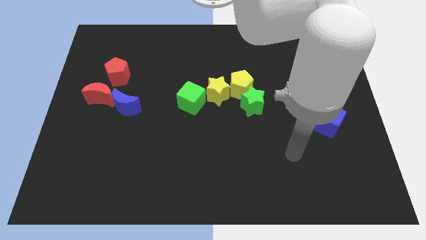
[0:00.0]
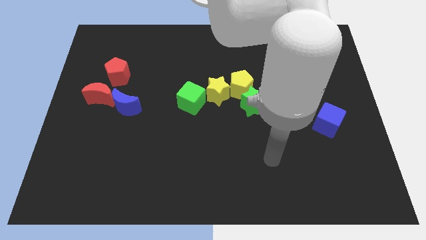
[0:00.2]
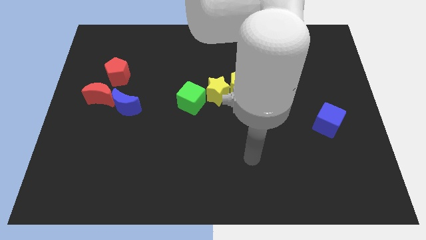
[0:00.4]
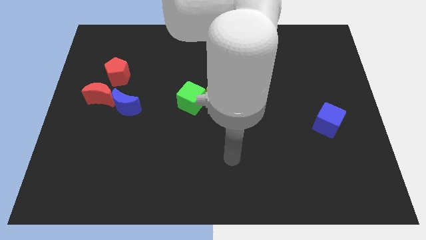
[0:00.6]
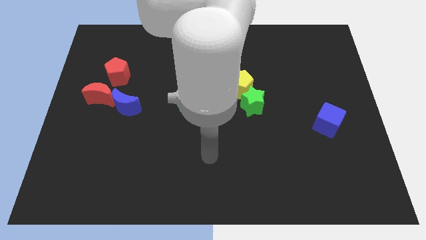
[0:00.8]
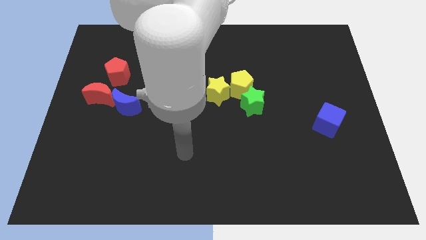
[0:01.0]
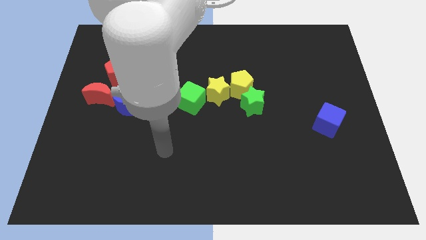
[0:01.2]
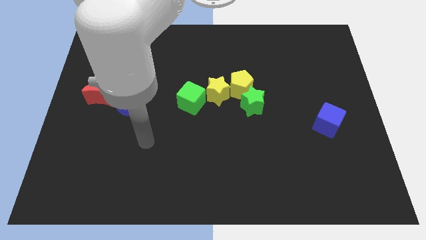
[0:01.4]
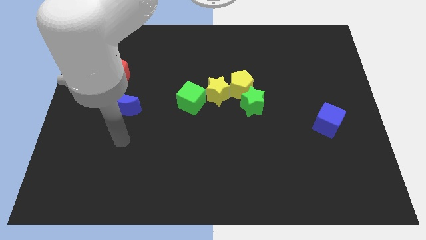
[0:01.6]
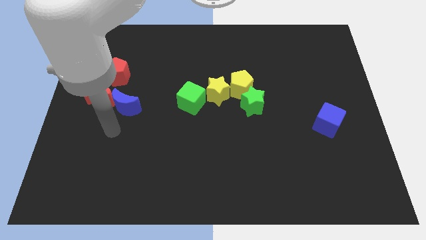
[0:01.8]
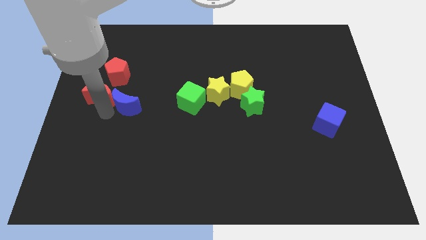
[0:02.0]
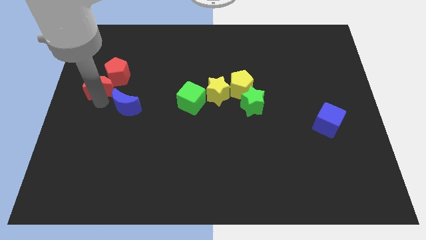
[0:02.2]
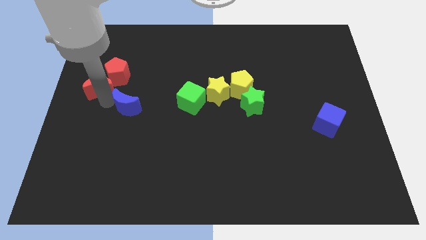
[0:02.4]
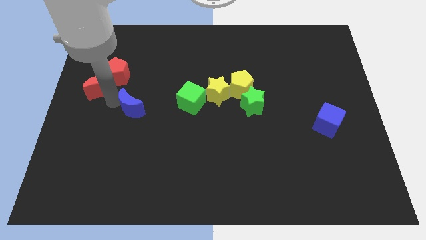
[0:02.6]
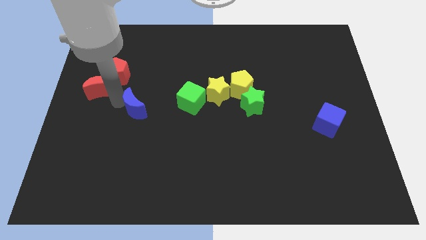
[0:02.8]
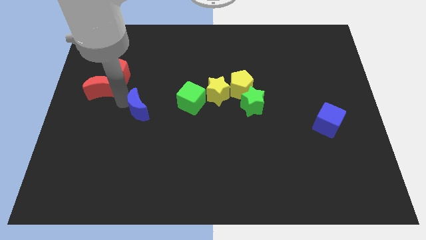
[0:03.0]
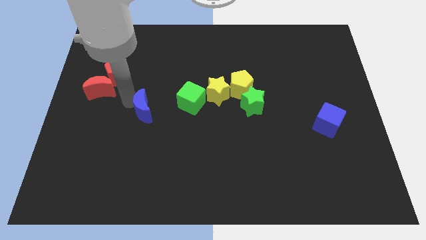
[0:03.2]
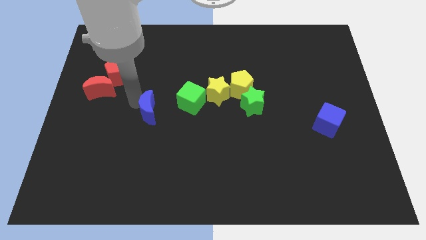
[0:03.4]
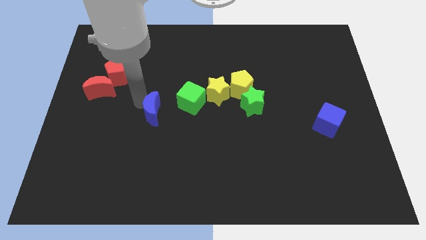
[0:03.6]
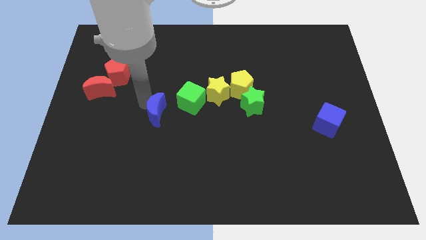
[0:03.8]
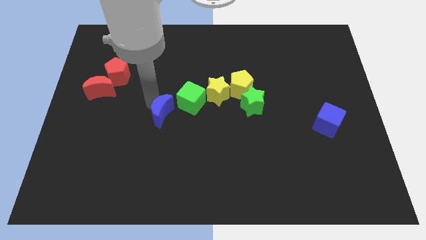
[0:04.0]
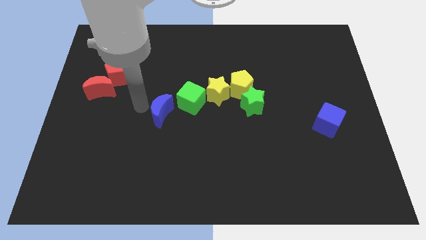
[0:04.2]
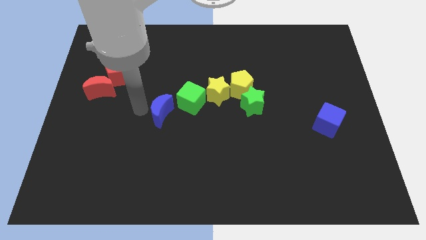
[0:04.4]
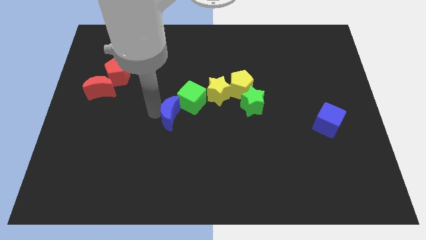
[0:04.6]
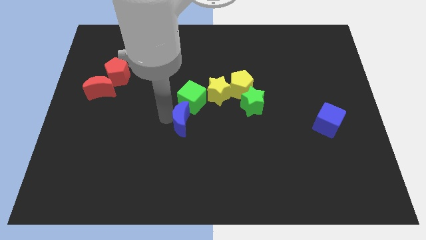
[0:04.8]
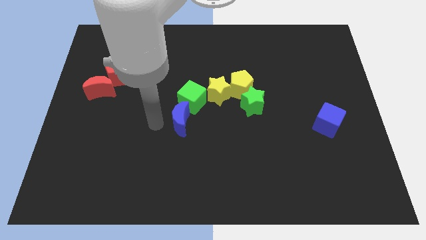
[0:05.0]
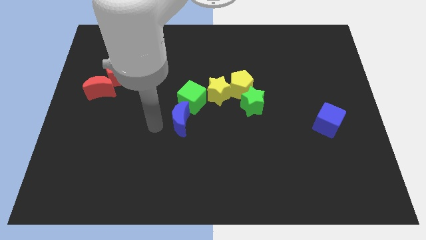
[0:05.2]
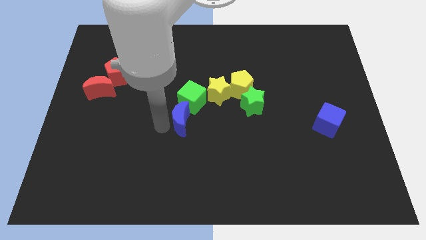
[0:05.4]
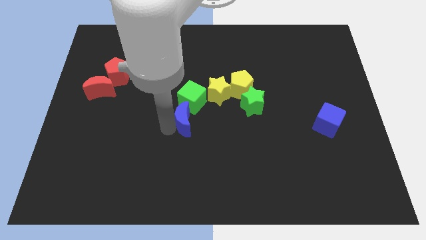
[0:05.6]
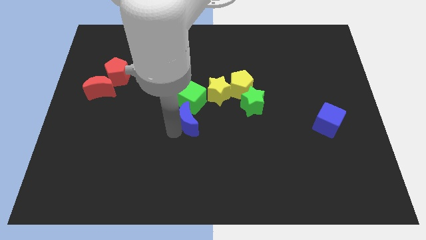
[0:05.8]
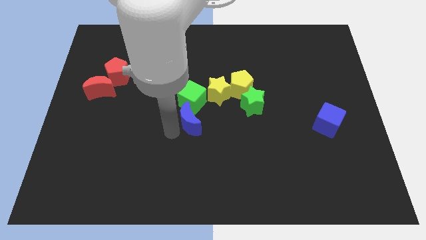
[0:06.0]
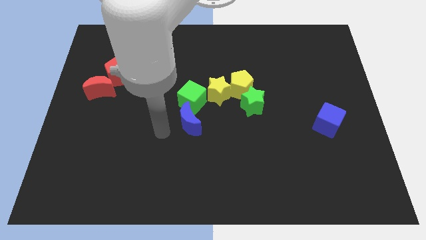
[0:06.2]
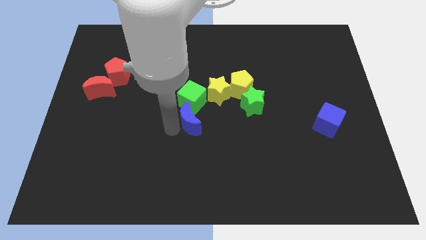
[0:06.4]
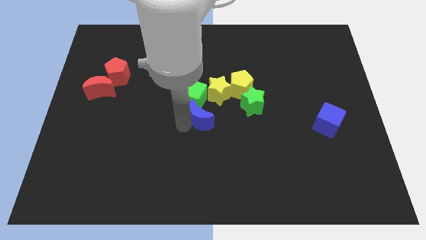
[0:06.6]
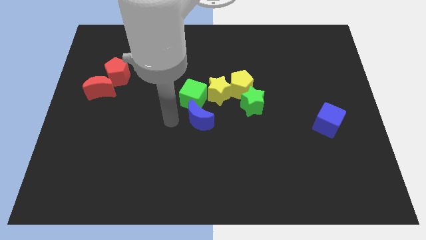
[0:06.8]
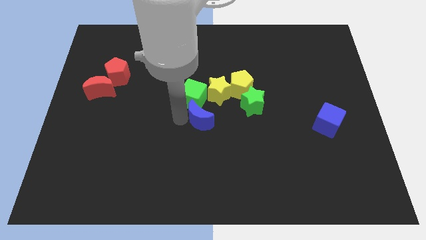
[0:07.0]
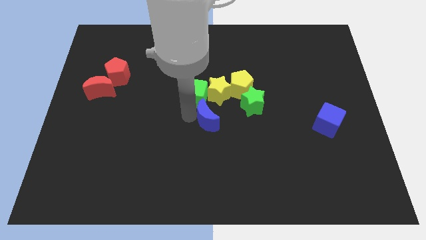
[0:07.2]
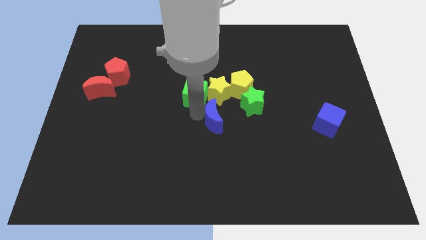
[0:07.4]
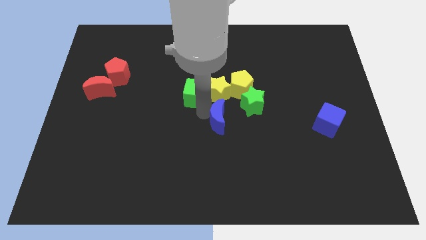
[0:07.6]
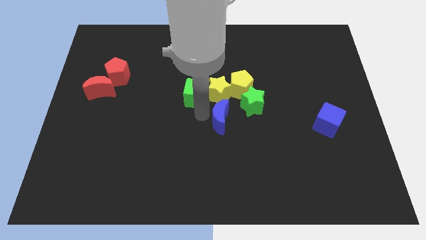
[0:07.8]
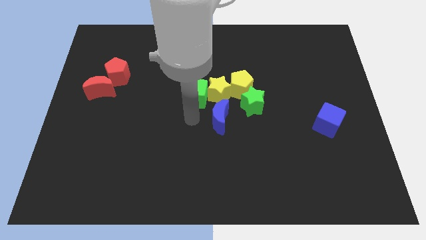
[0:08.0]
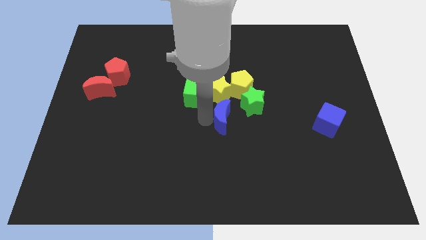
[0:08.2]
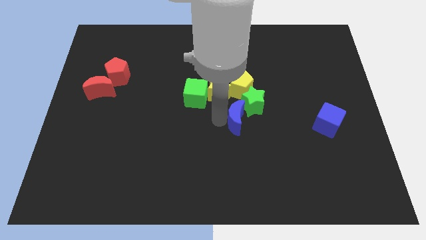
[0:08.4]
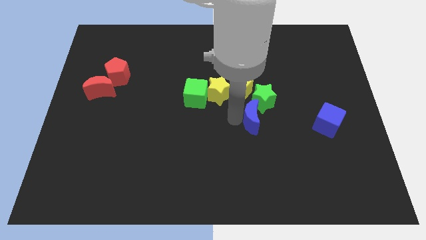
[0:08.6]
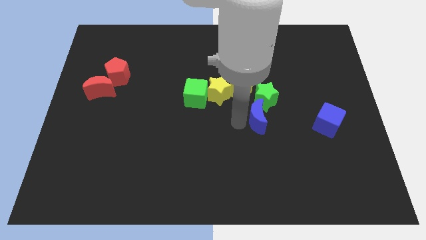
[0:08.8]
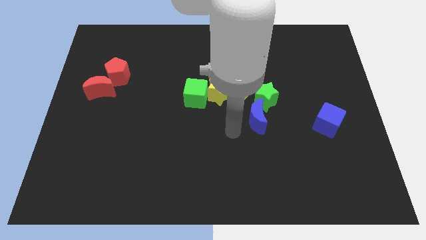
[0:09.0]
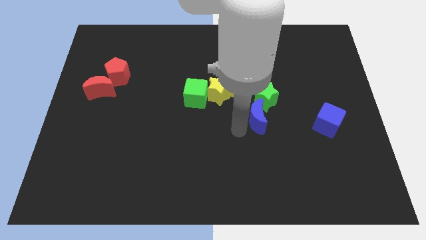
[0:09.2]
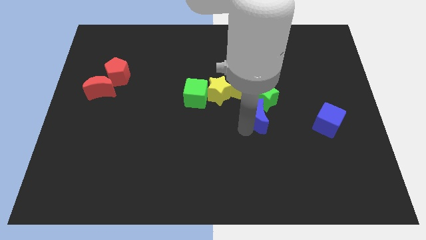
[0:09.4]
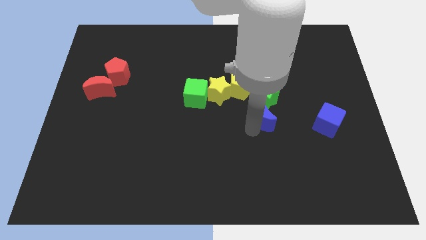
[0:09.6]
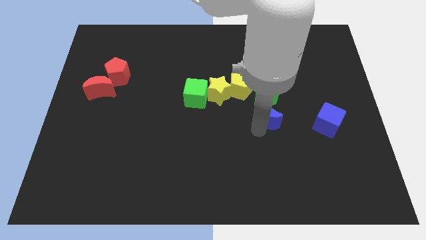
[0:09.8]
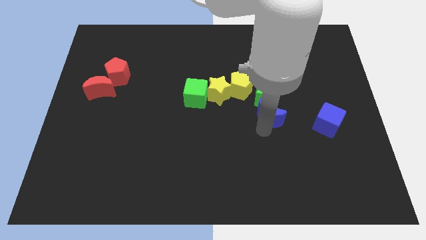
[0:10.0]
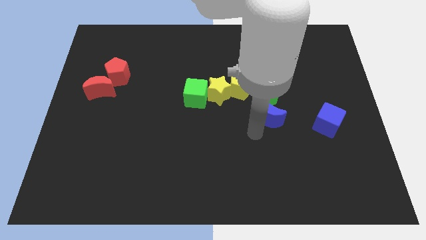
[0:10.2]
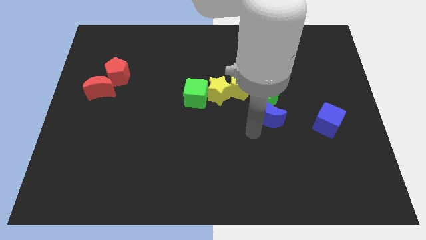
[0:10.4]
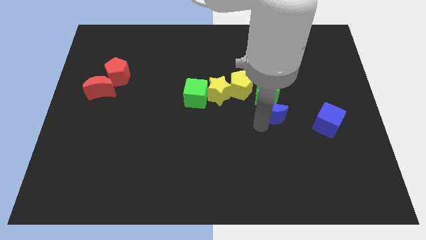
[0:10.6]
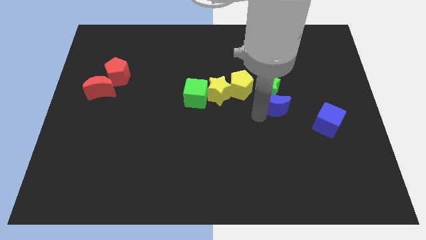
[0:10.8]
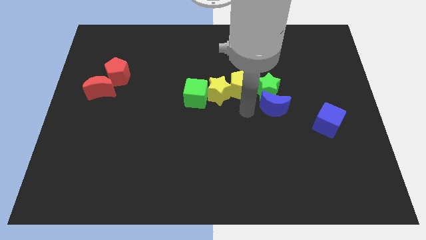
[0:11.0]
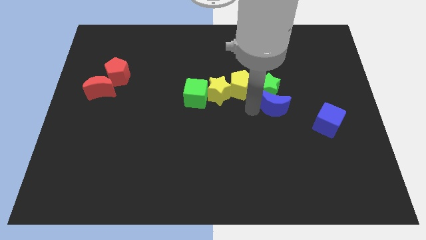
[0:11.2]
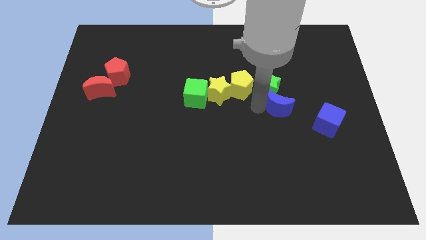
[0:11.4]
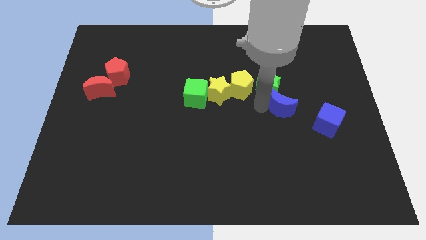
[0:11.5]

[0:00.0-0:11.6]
slide the blue moon to the top left of the blue cube

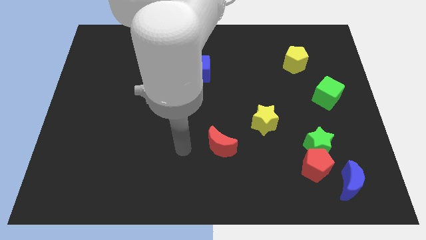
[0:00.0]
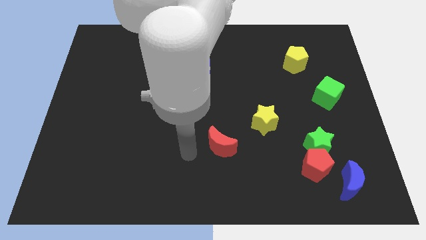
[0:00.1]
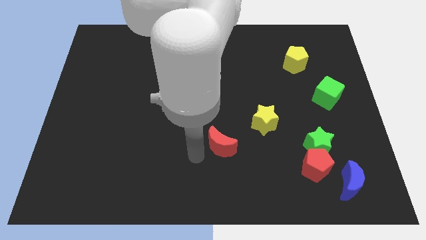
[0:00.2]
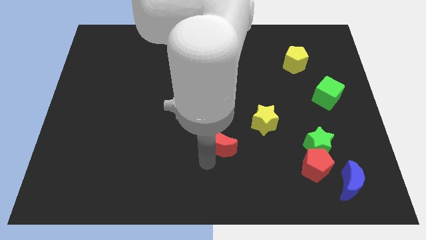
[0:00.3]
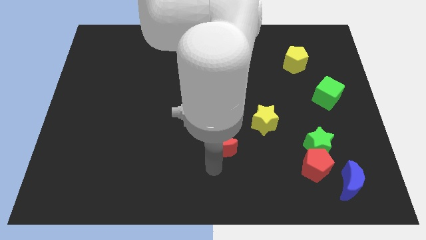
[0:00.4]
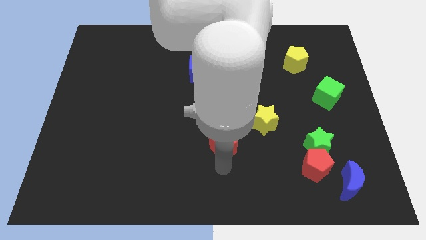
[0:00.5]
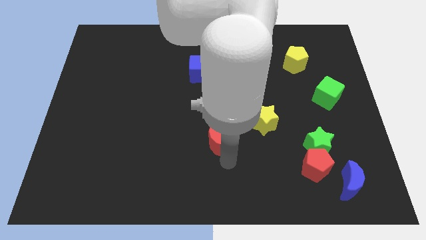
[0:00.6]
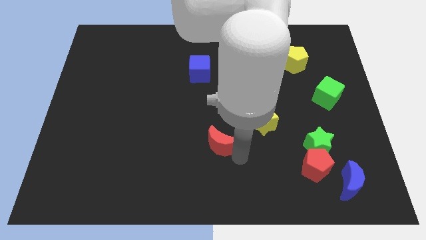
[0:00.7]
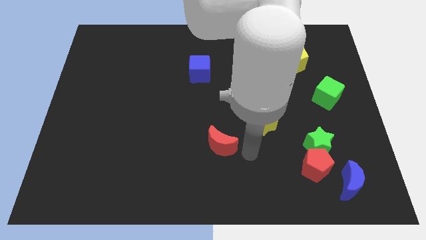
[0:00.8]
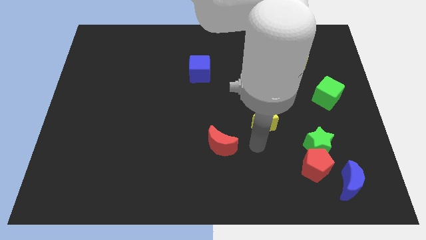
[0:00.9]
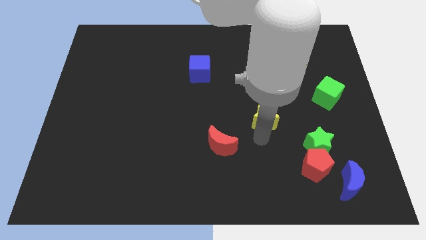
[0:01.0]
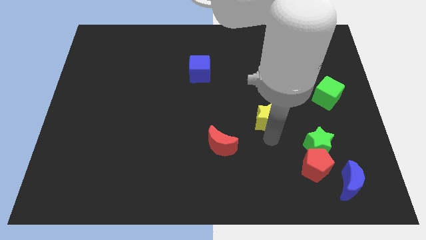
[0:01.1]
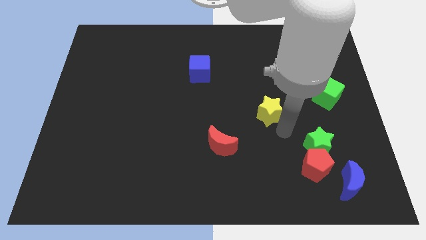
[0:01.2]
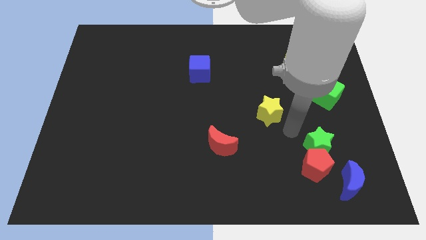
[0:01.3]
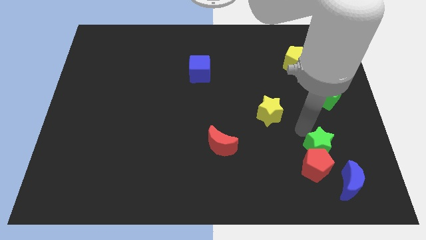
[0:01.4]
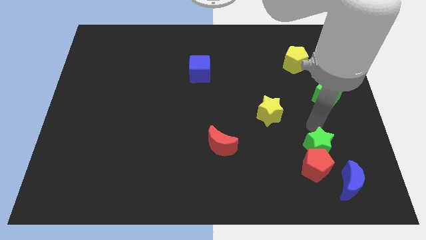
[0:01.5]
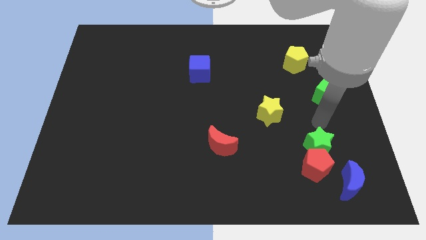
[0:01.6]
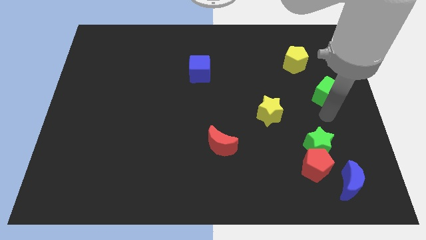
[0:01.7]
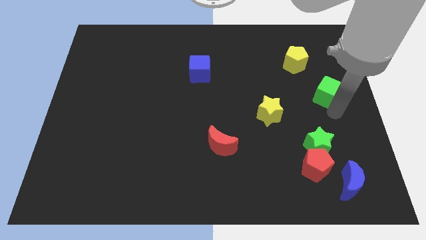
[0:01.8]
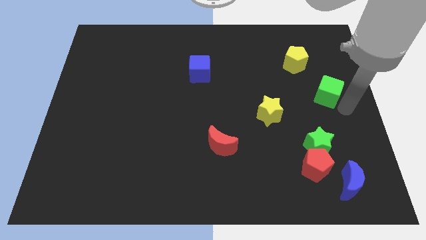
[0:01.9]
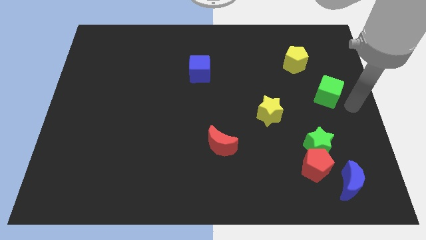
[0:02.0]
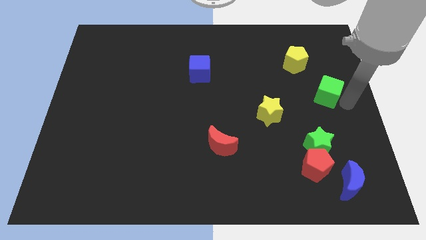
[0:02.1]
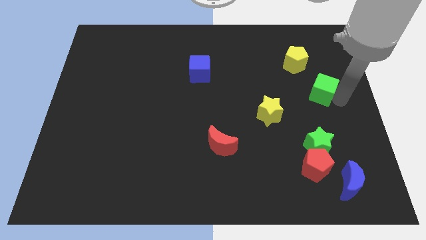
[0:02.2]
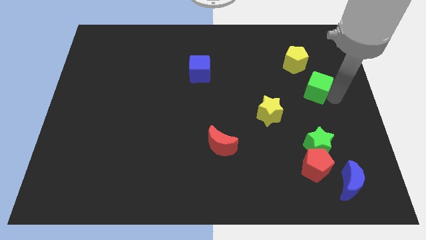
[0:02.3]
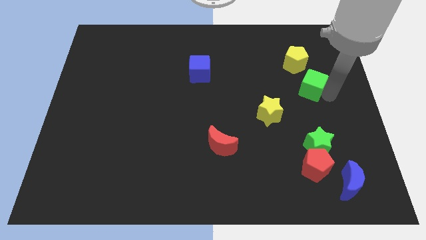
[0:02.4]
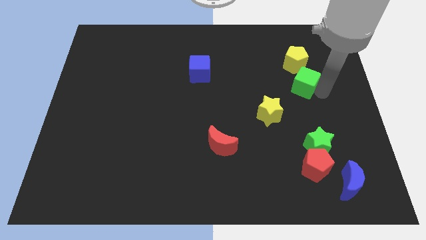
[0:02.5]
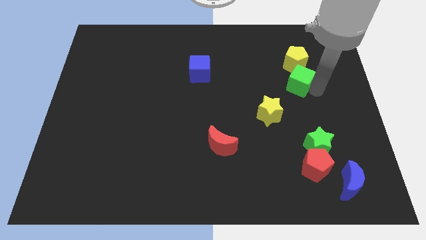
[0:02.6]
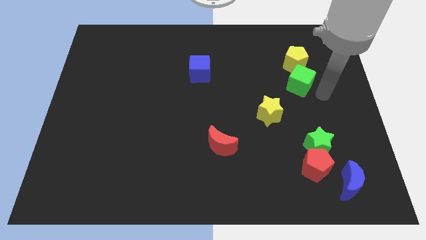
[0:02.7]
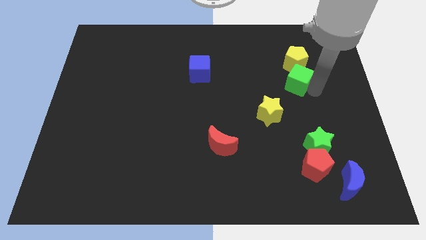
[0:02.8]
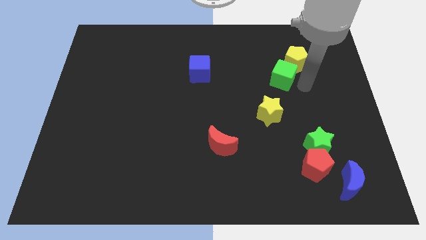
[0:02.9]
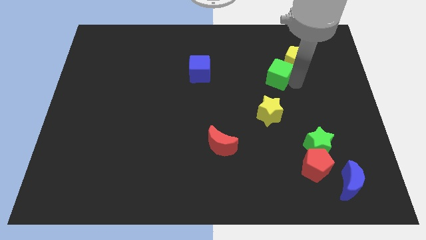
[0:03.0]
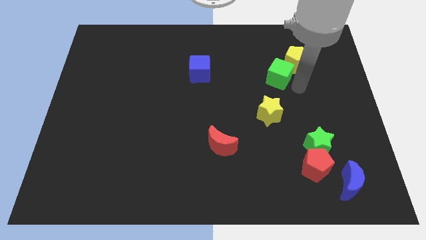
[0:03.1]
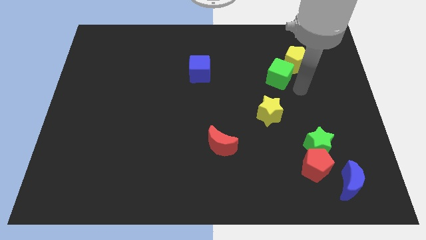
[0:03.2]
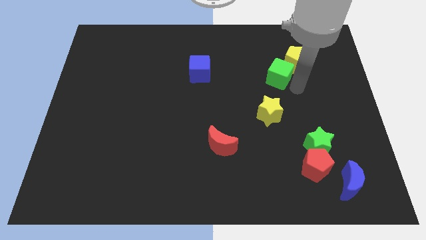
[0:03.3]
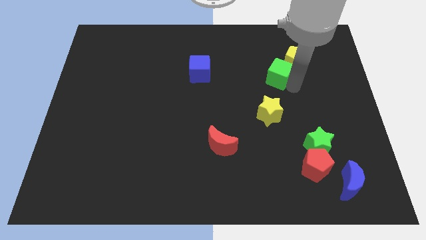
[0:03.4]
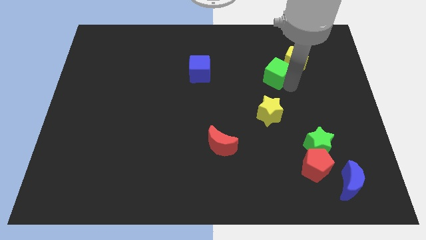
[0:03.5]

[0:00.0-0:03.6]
move the green cube just left of the yellow pentagon
